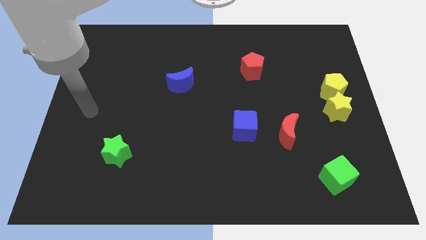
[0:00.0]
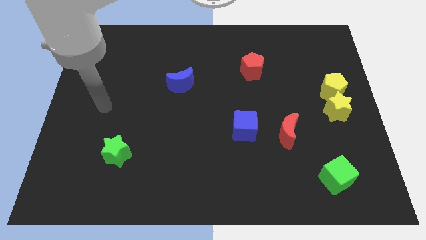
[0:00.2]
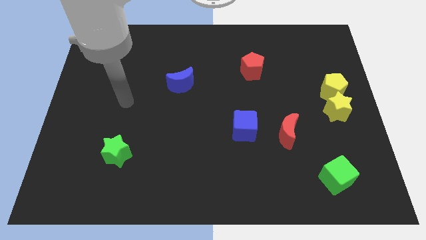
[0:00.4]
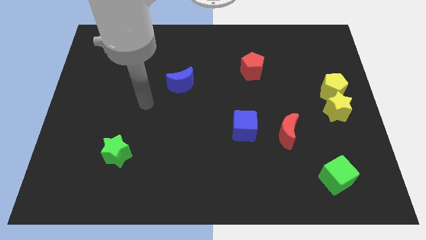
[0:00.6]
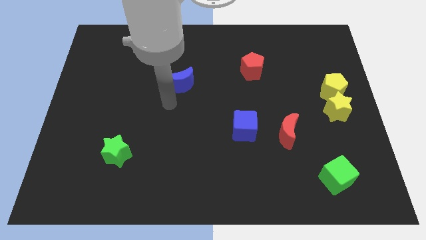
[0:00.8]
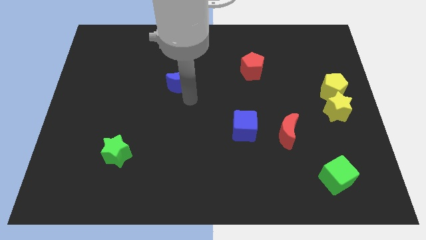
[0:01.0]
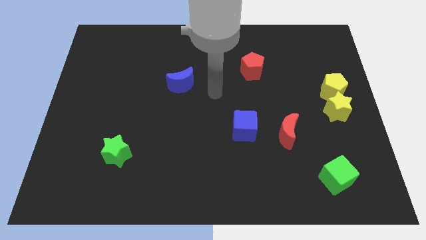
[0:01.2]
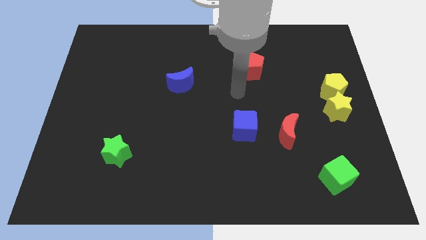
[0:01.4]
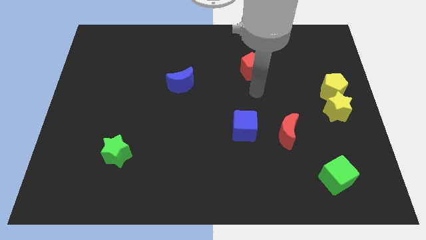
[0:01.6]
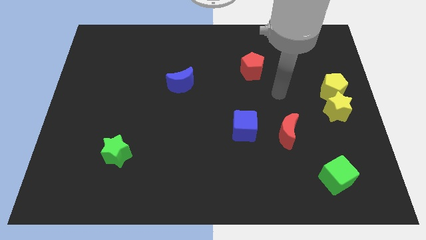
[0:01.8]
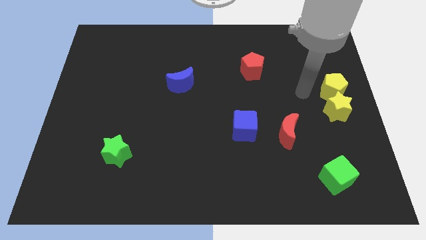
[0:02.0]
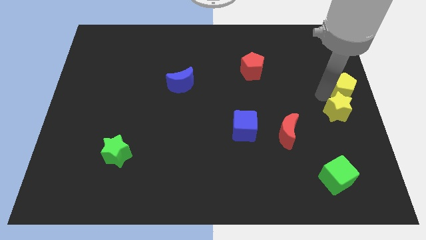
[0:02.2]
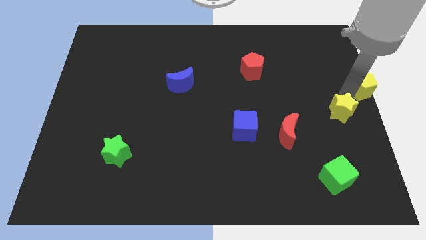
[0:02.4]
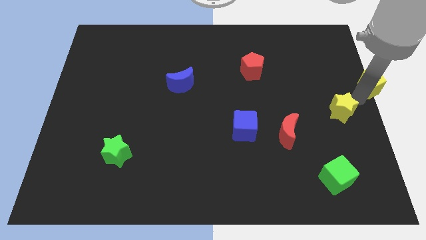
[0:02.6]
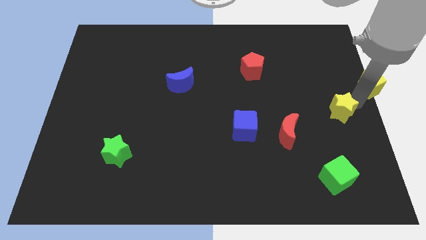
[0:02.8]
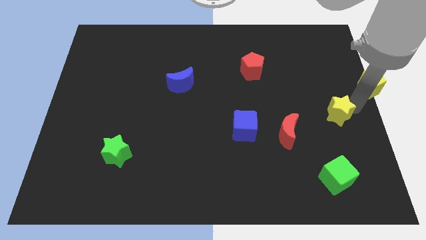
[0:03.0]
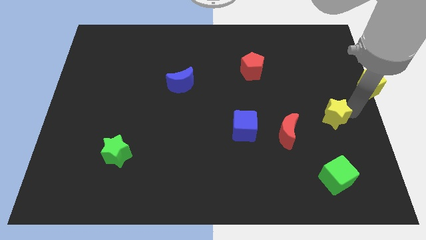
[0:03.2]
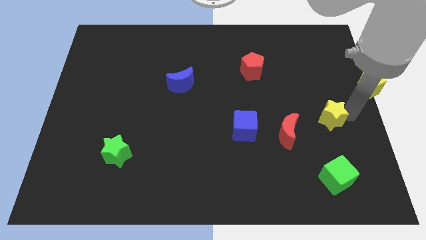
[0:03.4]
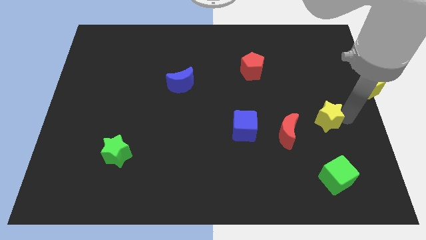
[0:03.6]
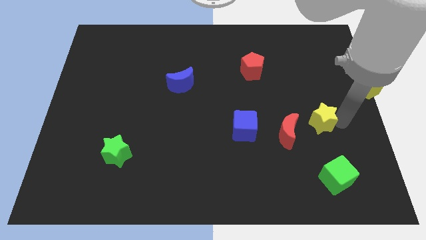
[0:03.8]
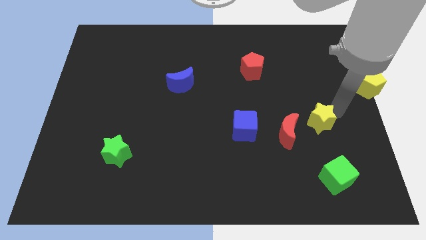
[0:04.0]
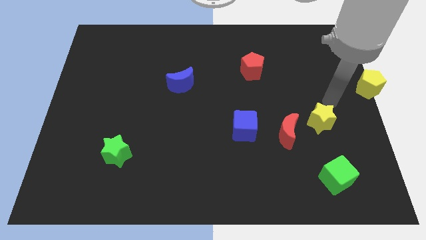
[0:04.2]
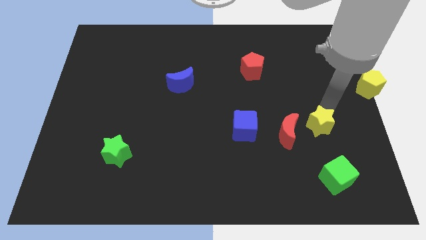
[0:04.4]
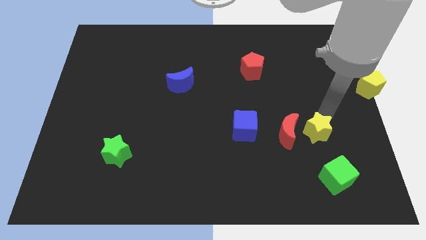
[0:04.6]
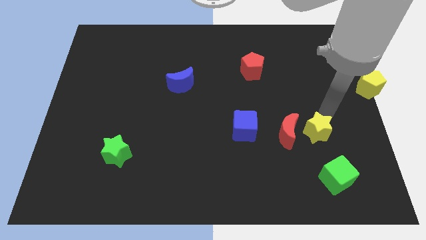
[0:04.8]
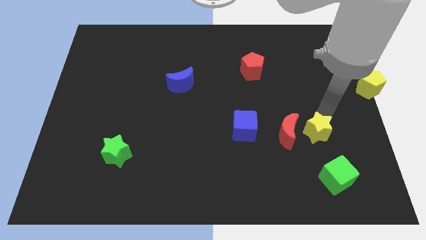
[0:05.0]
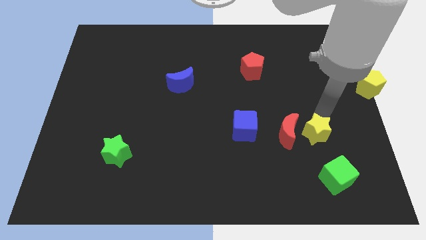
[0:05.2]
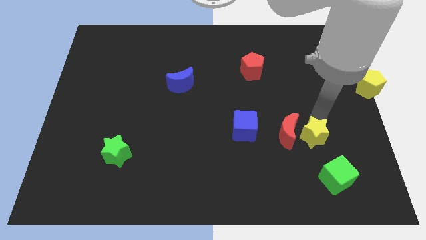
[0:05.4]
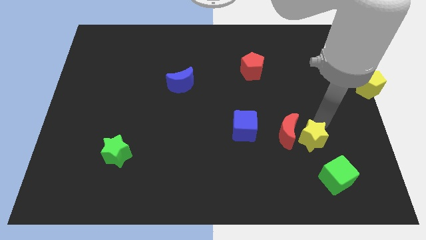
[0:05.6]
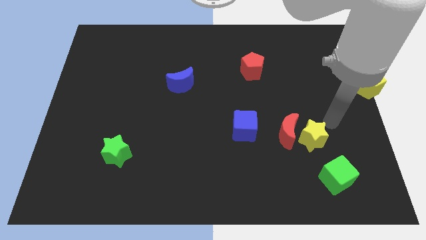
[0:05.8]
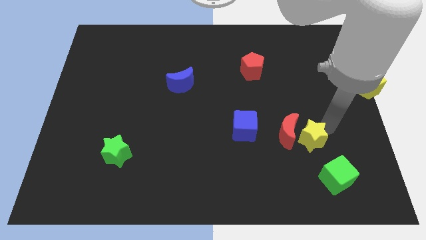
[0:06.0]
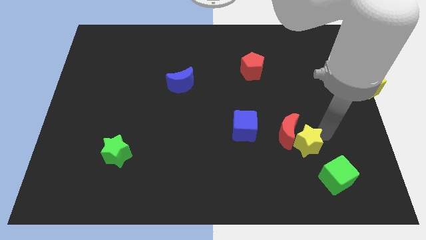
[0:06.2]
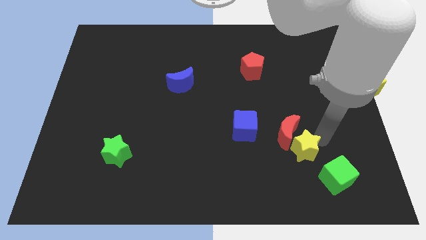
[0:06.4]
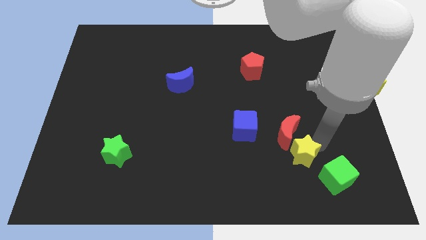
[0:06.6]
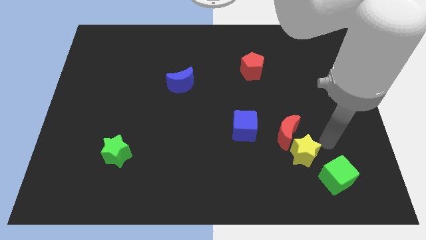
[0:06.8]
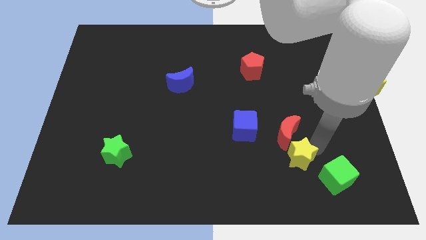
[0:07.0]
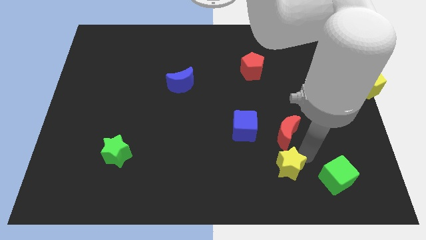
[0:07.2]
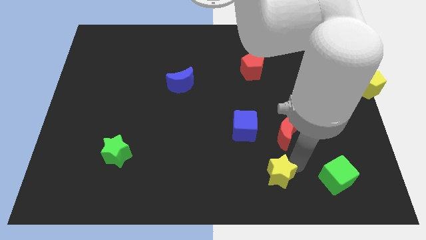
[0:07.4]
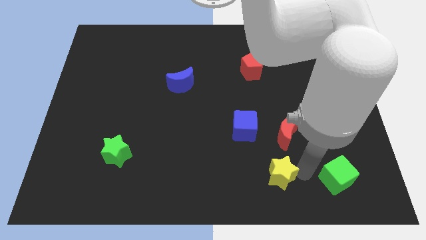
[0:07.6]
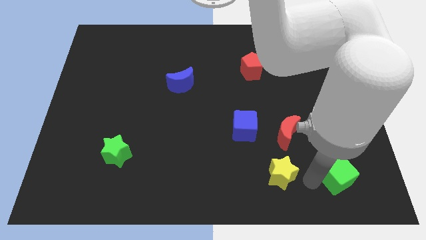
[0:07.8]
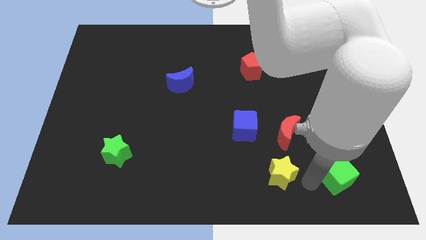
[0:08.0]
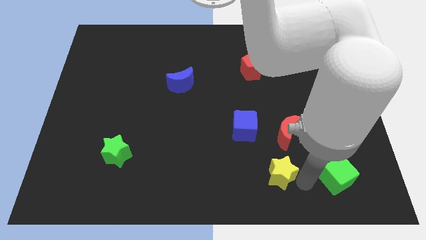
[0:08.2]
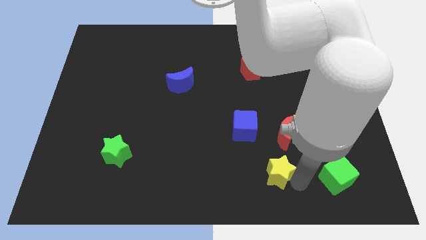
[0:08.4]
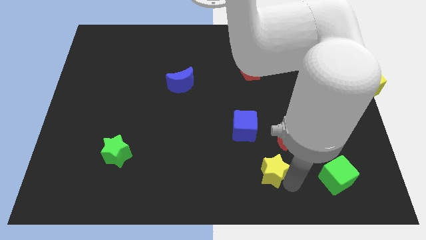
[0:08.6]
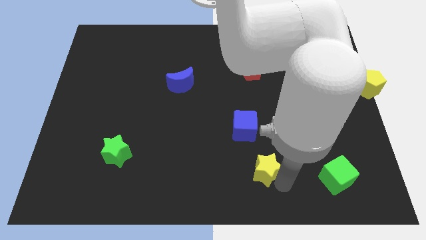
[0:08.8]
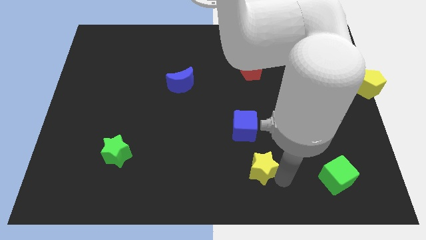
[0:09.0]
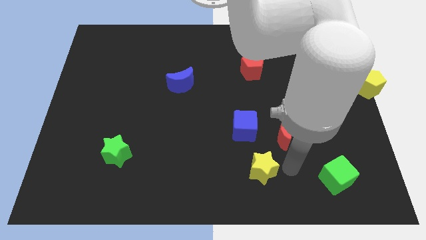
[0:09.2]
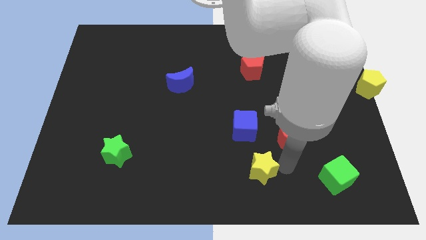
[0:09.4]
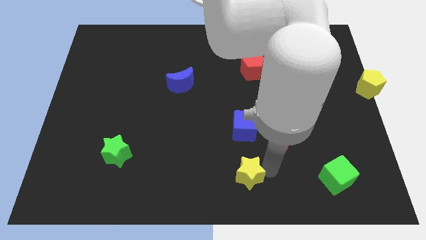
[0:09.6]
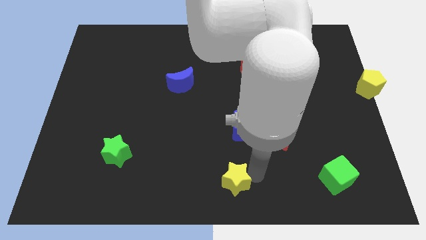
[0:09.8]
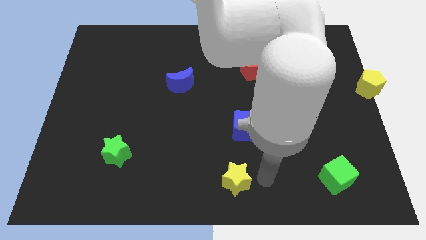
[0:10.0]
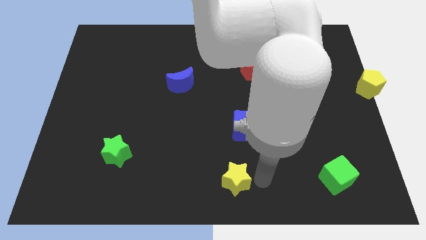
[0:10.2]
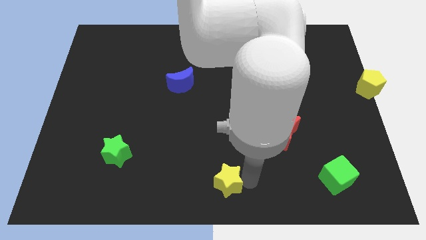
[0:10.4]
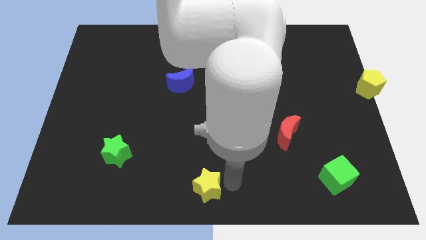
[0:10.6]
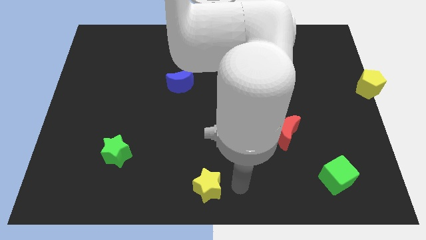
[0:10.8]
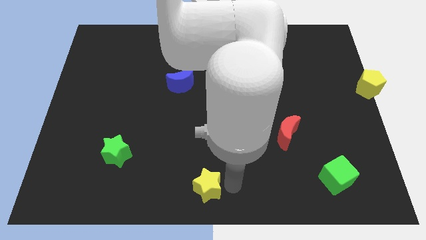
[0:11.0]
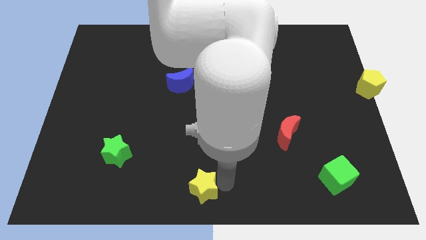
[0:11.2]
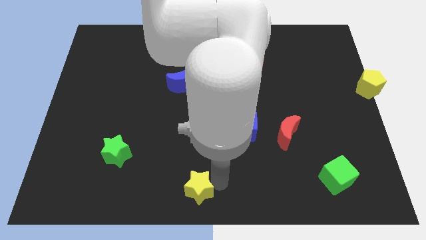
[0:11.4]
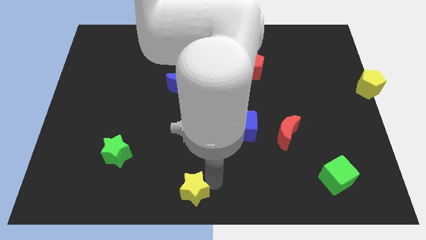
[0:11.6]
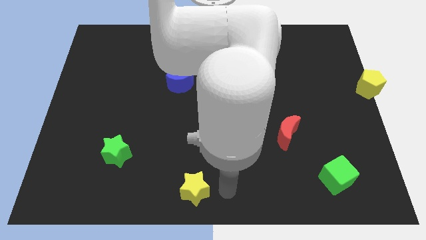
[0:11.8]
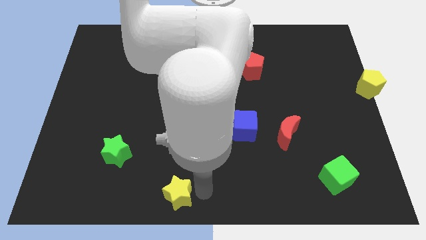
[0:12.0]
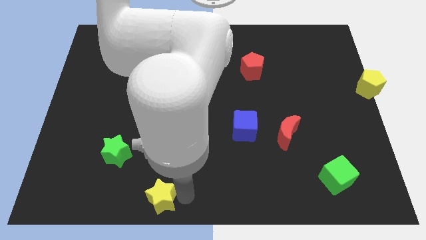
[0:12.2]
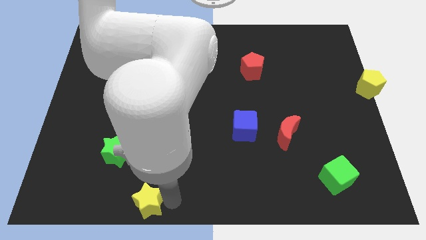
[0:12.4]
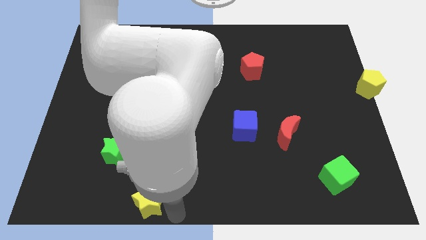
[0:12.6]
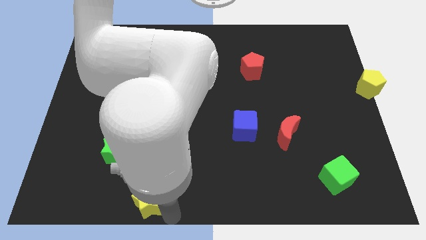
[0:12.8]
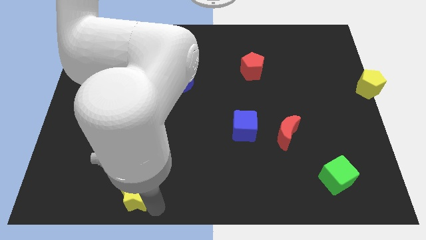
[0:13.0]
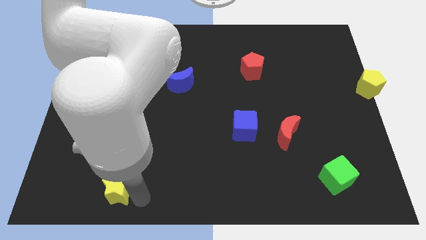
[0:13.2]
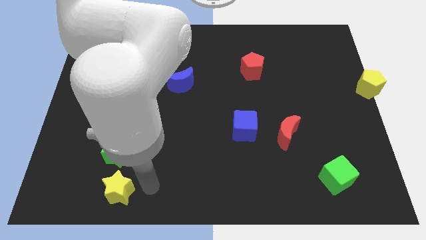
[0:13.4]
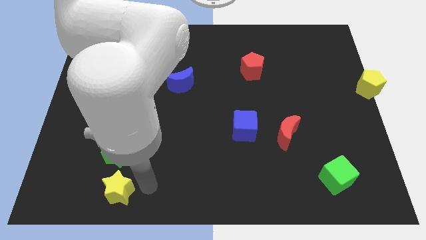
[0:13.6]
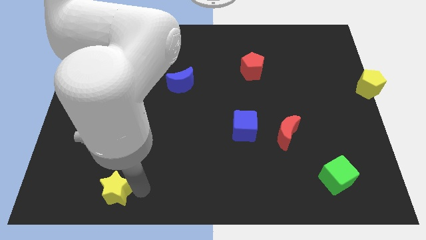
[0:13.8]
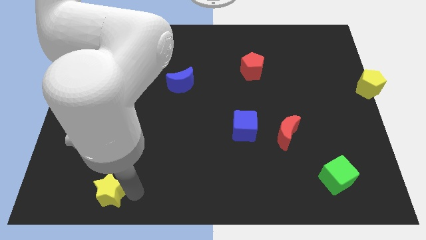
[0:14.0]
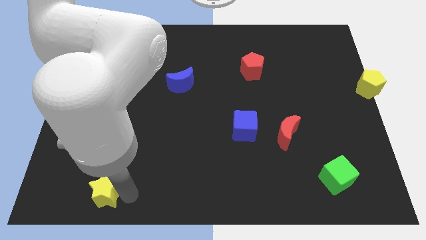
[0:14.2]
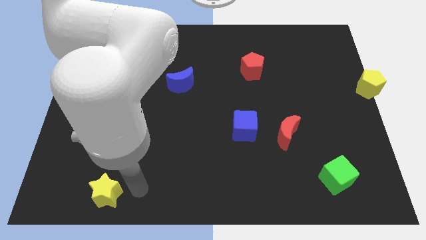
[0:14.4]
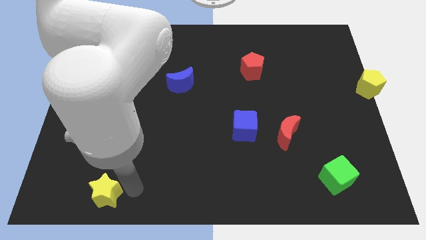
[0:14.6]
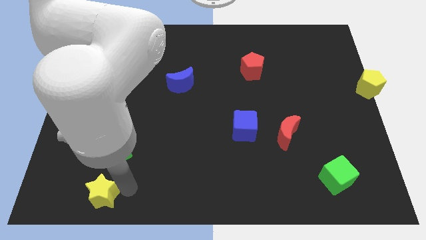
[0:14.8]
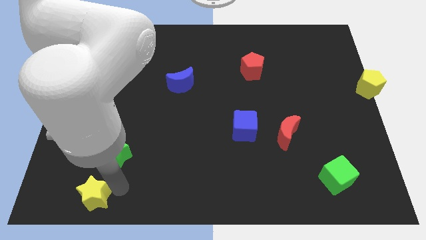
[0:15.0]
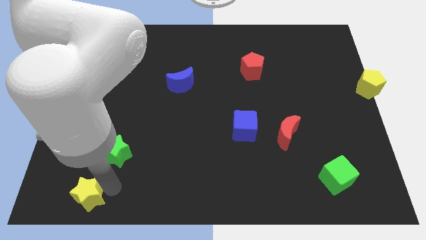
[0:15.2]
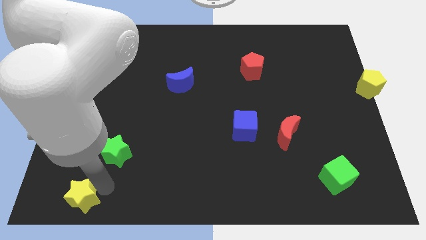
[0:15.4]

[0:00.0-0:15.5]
move the yellow star to the bottom left corner

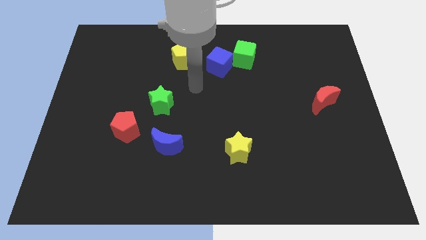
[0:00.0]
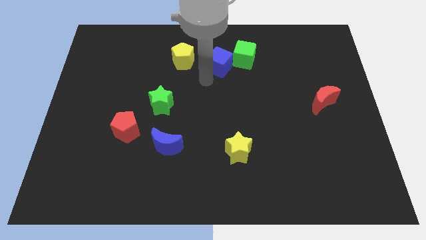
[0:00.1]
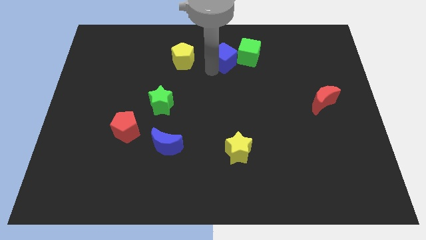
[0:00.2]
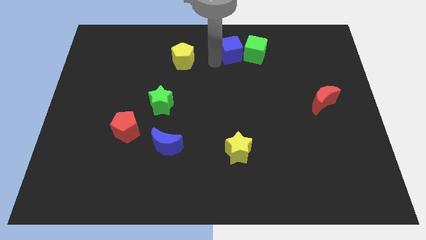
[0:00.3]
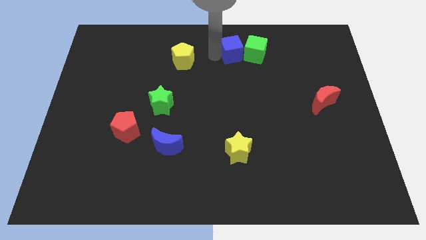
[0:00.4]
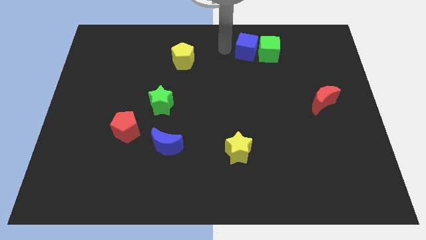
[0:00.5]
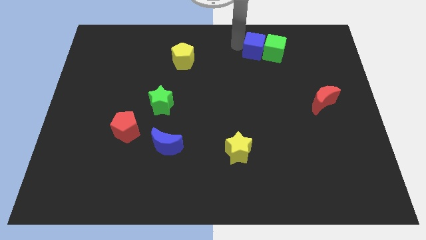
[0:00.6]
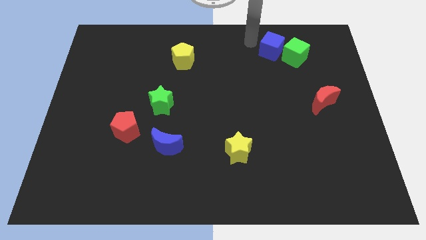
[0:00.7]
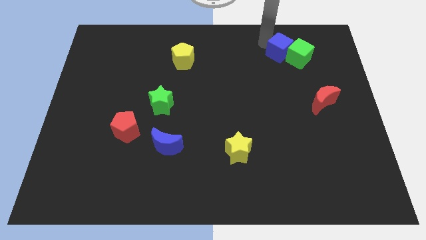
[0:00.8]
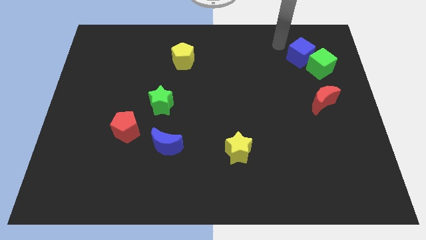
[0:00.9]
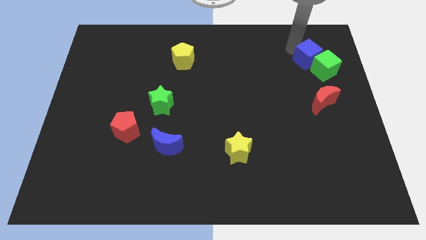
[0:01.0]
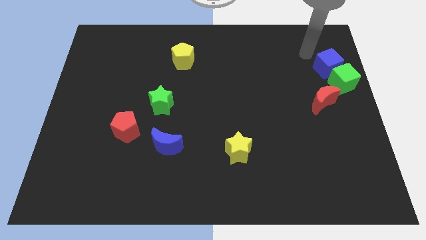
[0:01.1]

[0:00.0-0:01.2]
slide the green cube to the right side of the board
